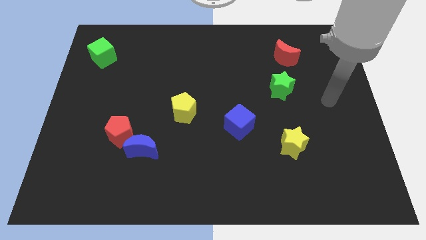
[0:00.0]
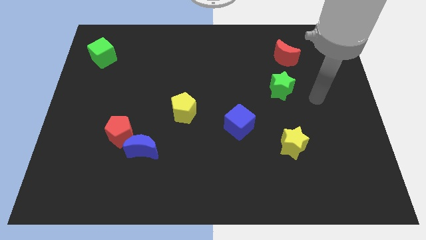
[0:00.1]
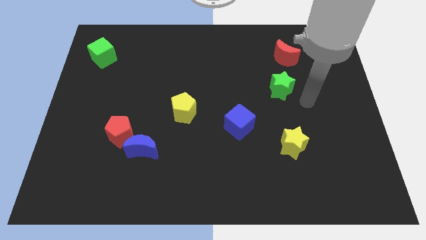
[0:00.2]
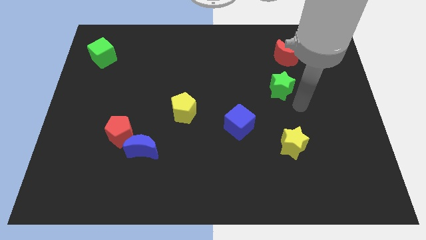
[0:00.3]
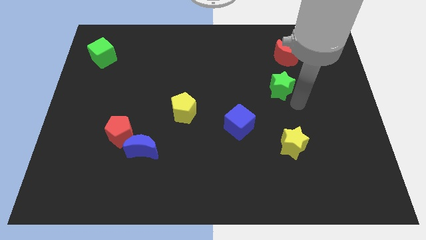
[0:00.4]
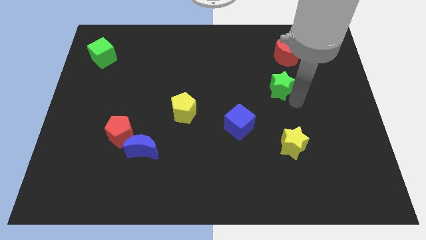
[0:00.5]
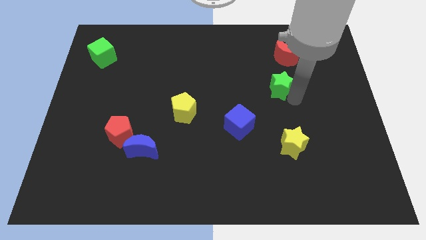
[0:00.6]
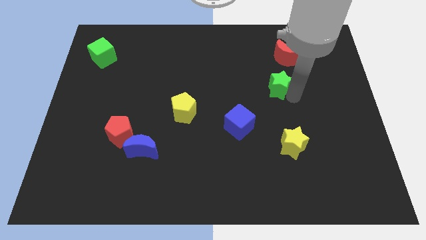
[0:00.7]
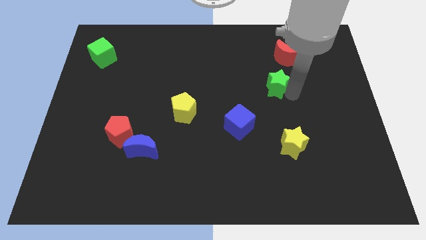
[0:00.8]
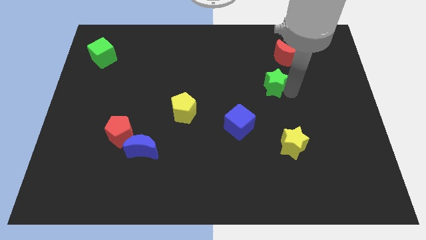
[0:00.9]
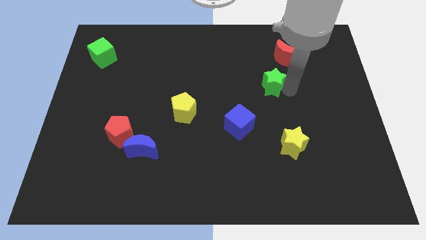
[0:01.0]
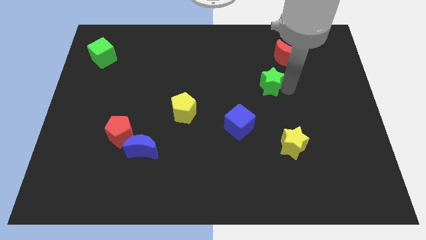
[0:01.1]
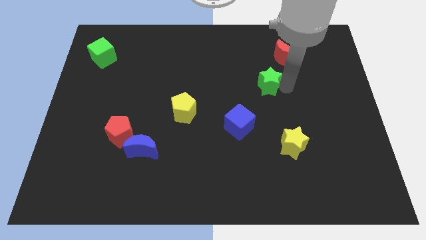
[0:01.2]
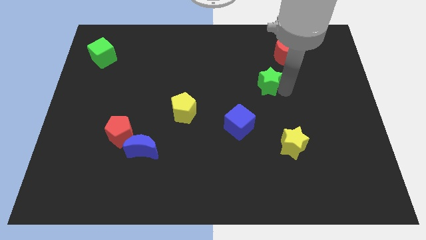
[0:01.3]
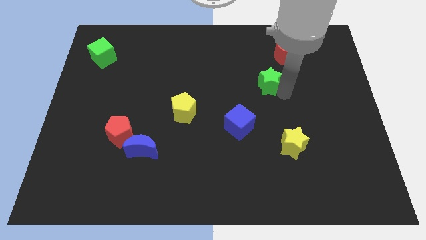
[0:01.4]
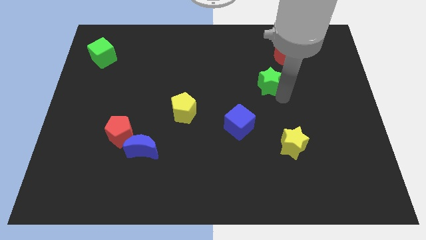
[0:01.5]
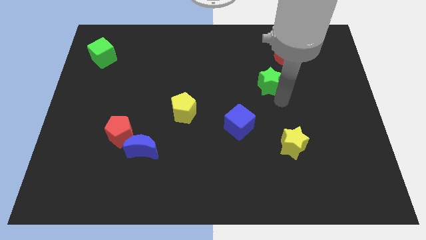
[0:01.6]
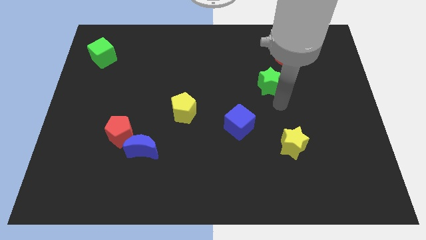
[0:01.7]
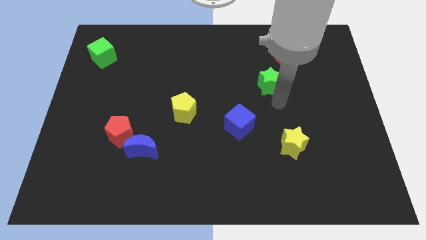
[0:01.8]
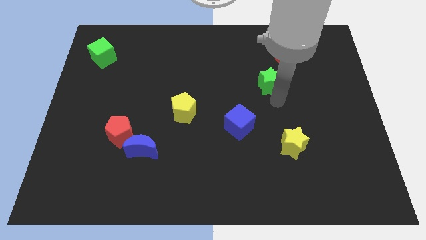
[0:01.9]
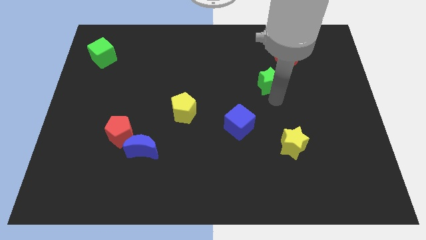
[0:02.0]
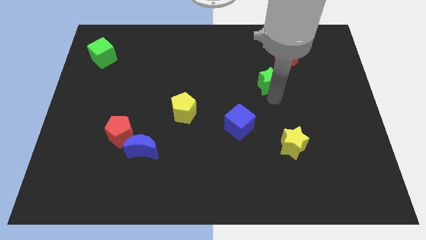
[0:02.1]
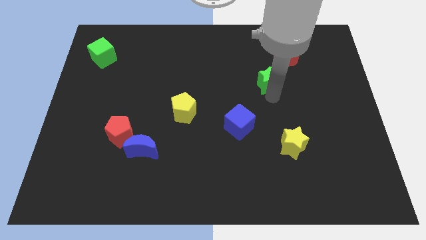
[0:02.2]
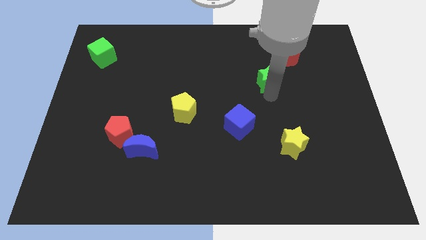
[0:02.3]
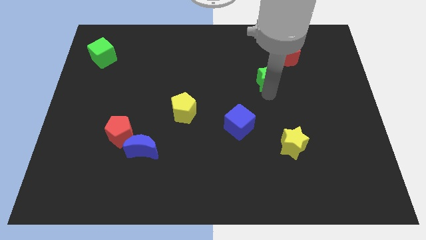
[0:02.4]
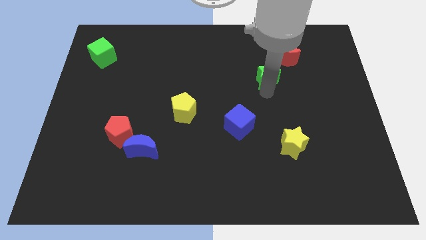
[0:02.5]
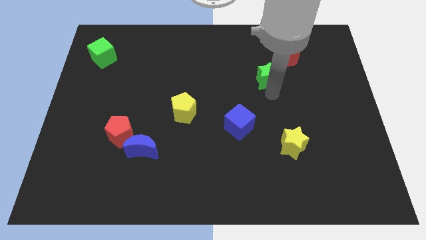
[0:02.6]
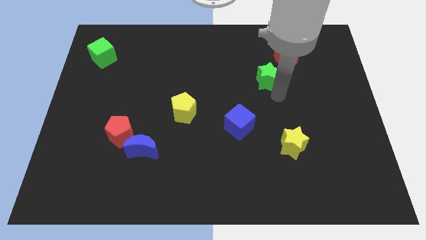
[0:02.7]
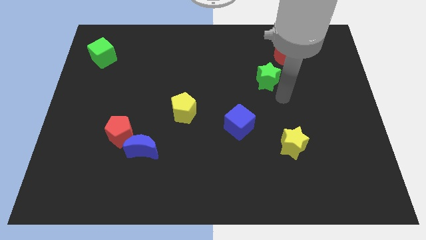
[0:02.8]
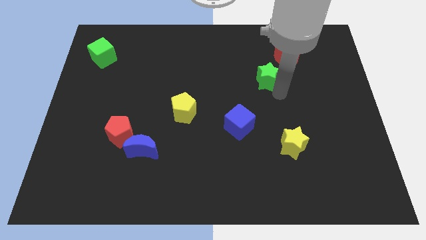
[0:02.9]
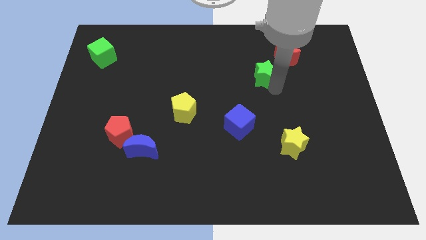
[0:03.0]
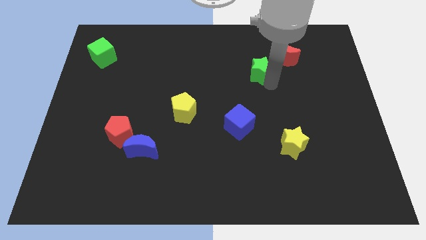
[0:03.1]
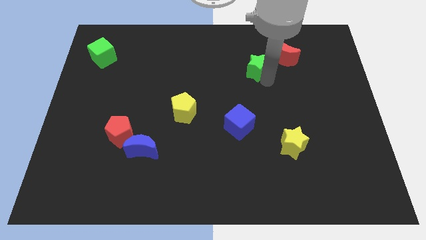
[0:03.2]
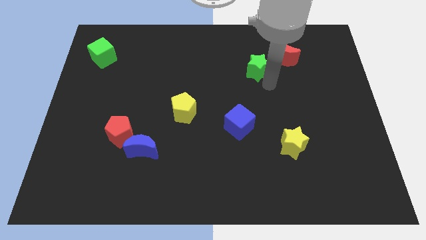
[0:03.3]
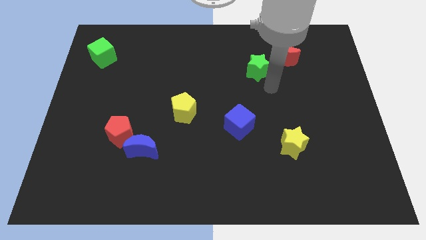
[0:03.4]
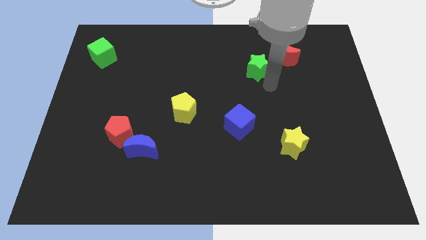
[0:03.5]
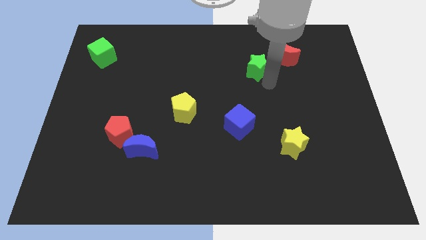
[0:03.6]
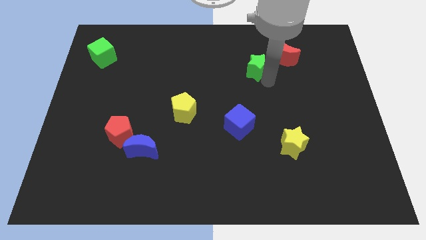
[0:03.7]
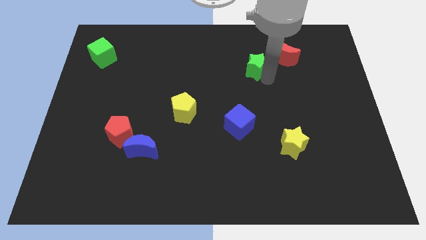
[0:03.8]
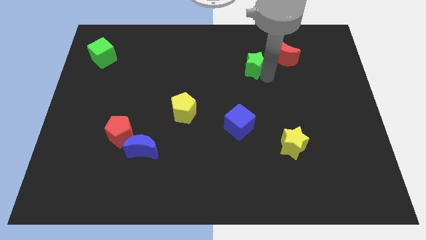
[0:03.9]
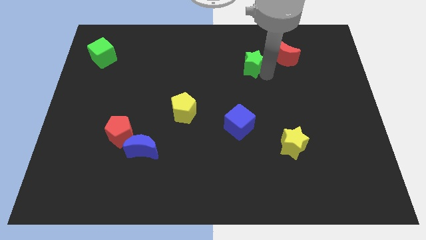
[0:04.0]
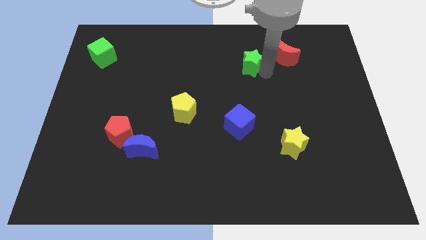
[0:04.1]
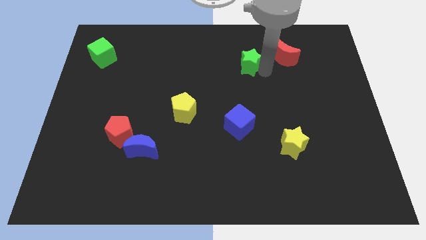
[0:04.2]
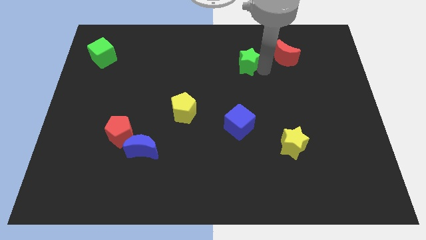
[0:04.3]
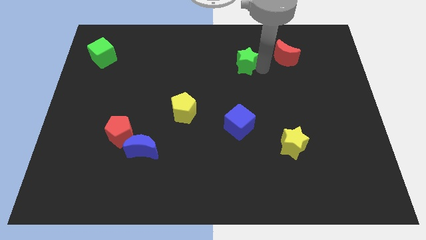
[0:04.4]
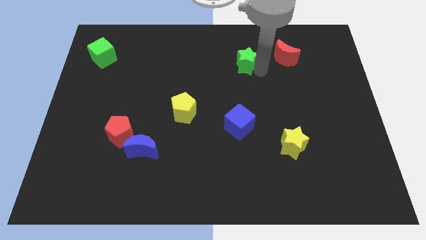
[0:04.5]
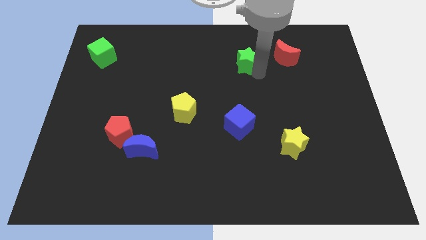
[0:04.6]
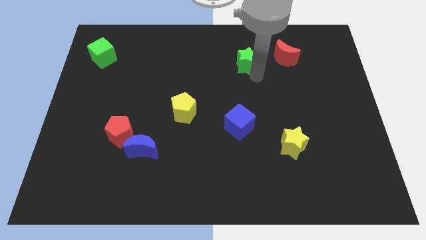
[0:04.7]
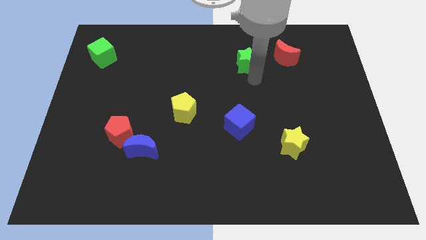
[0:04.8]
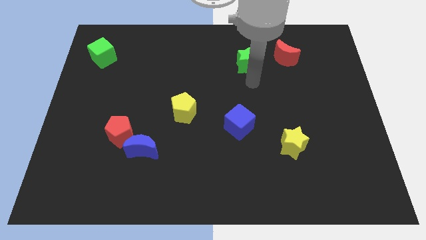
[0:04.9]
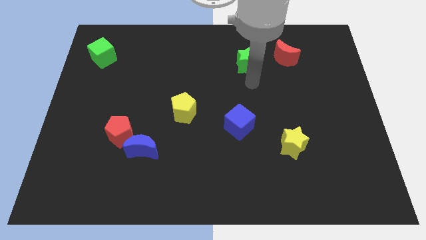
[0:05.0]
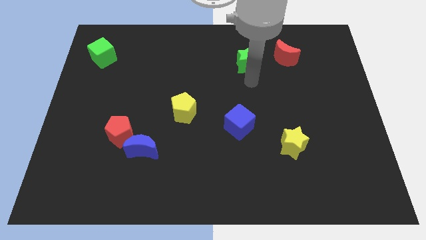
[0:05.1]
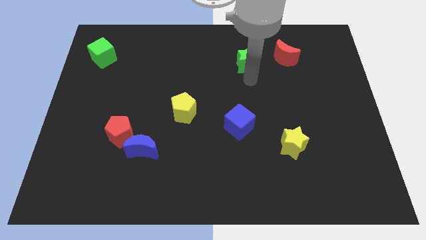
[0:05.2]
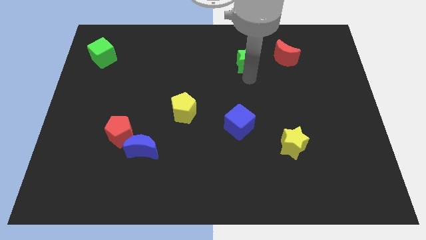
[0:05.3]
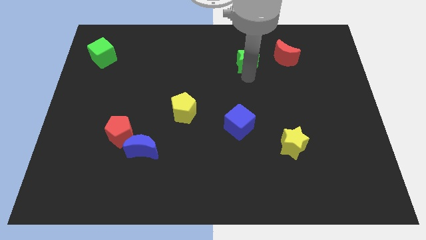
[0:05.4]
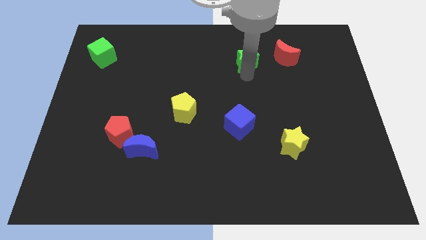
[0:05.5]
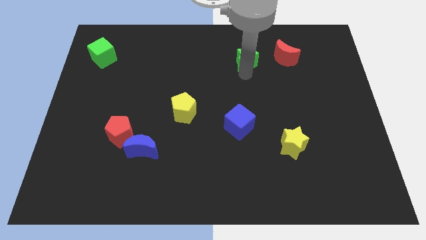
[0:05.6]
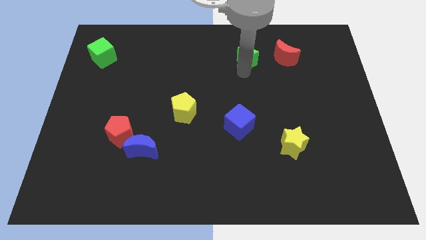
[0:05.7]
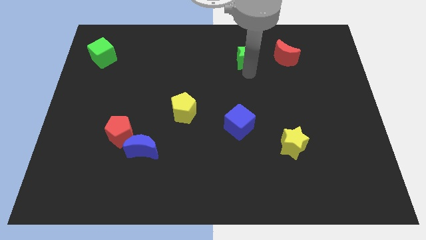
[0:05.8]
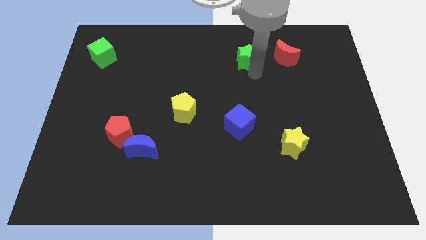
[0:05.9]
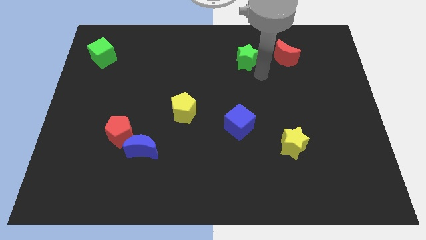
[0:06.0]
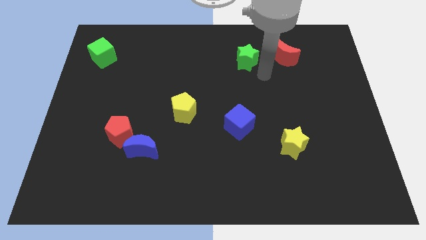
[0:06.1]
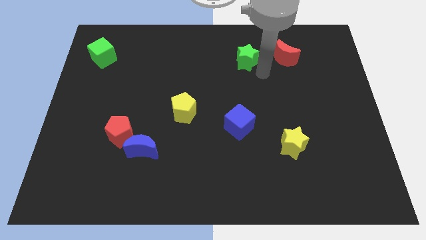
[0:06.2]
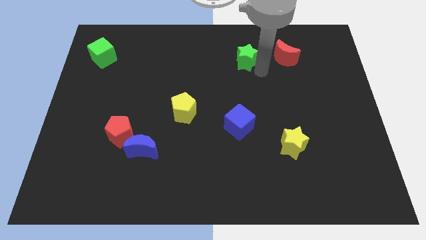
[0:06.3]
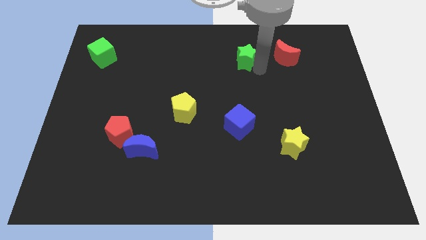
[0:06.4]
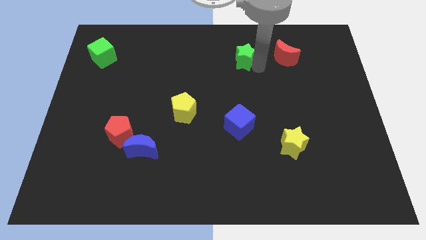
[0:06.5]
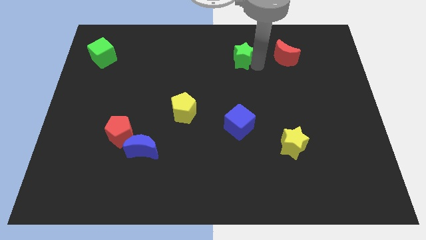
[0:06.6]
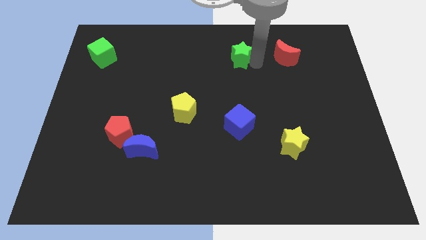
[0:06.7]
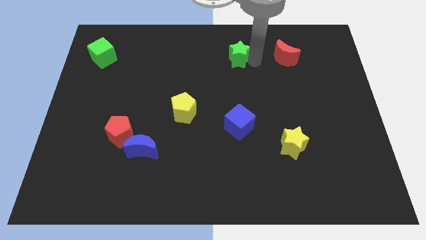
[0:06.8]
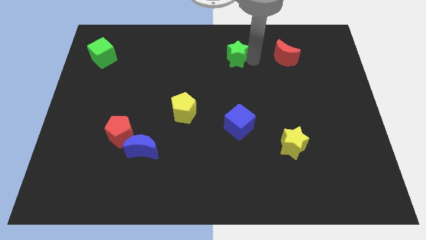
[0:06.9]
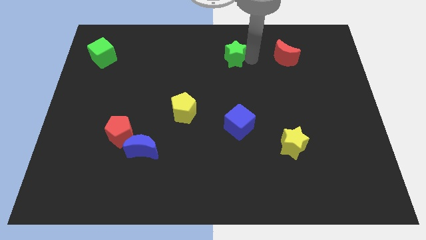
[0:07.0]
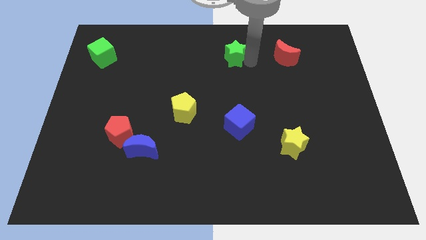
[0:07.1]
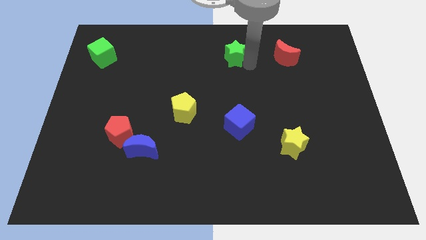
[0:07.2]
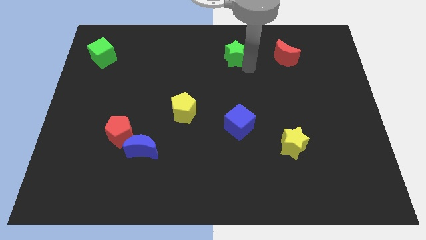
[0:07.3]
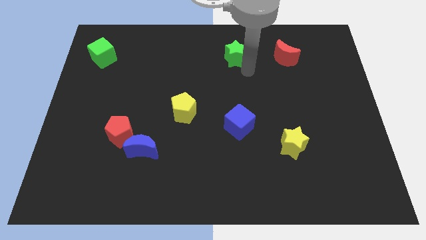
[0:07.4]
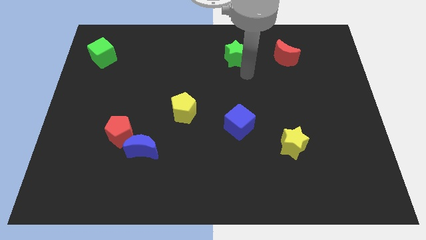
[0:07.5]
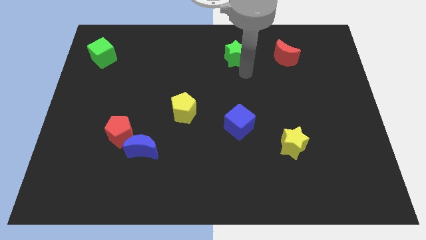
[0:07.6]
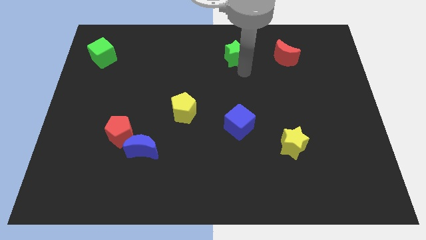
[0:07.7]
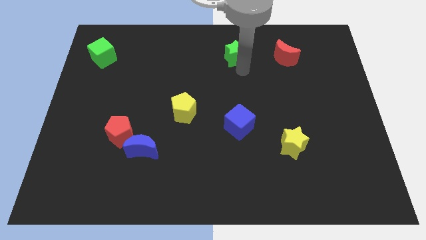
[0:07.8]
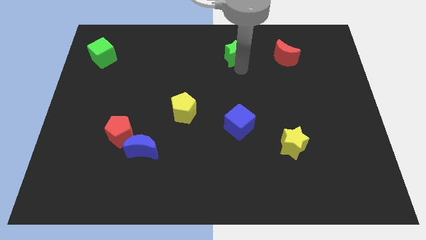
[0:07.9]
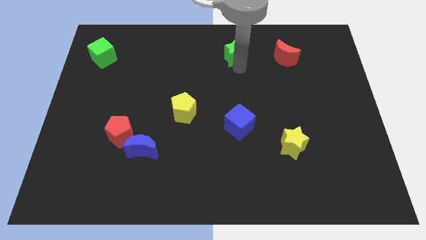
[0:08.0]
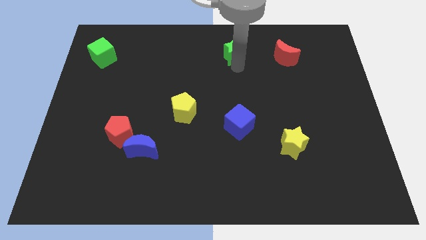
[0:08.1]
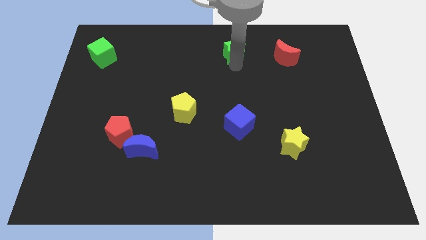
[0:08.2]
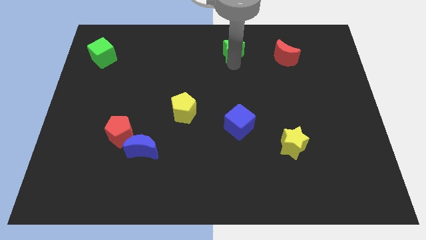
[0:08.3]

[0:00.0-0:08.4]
move the green star to the towards your base
